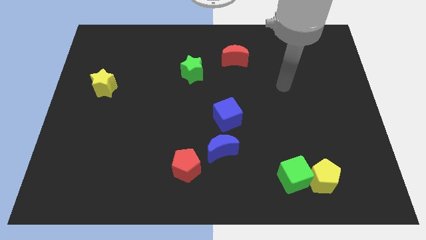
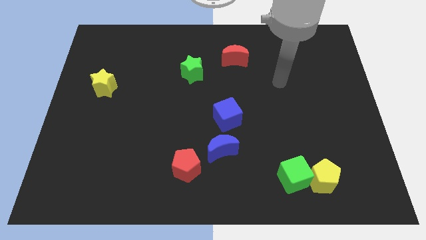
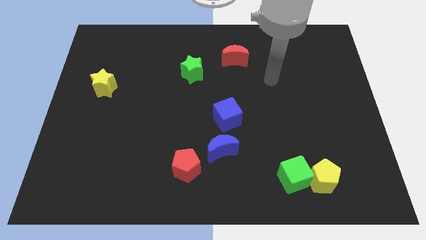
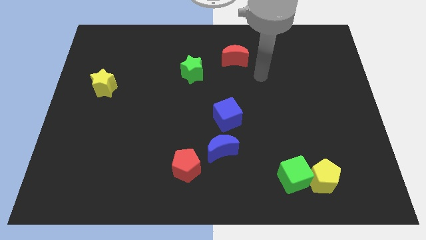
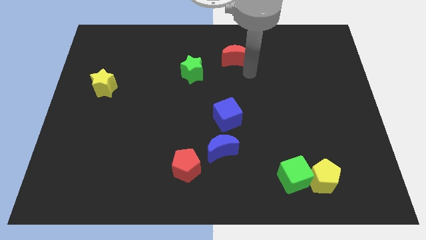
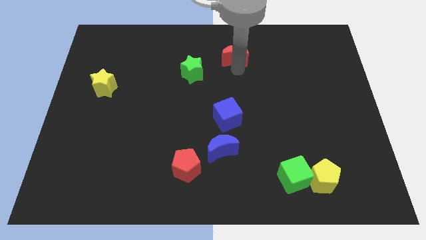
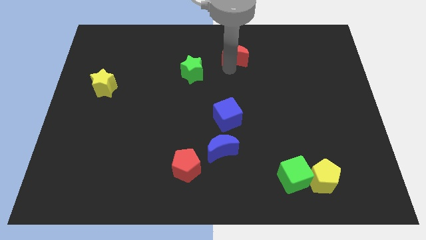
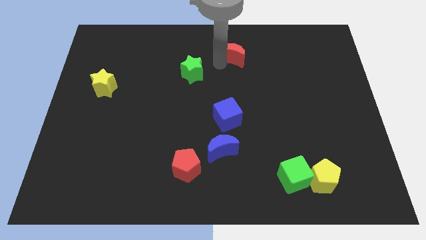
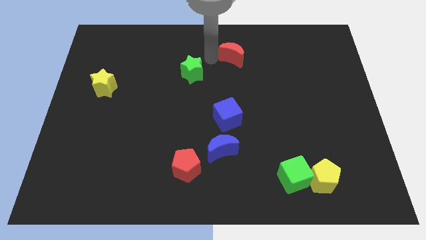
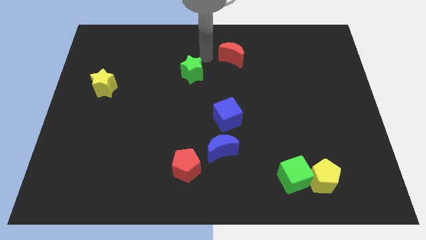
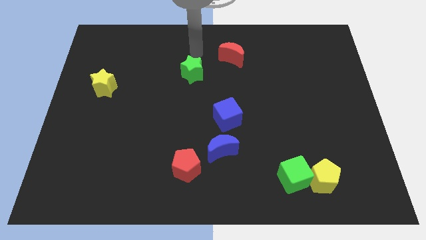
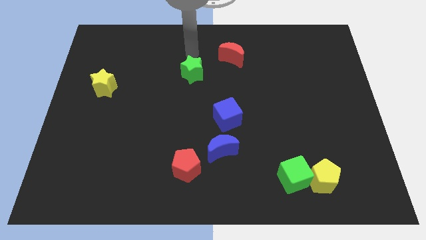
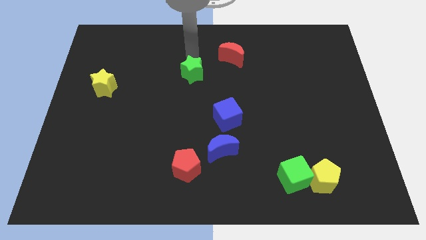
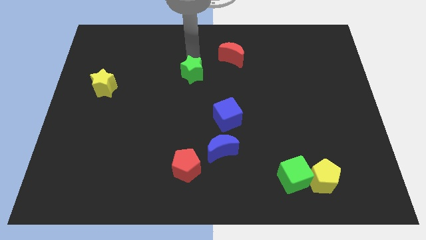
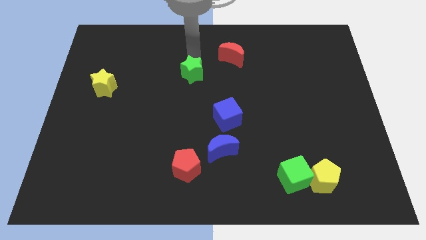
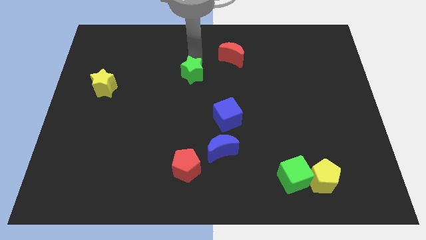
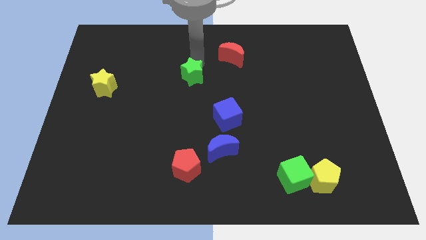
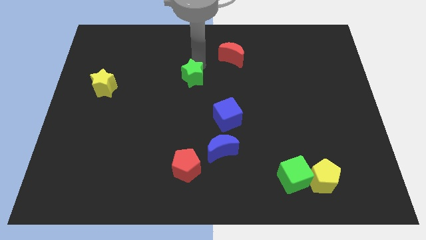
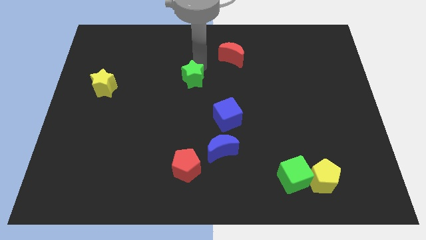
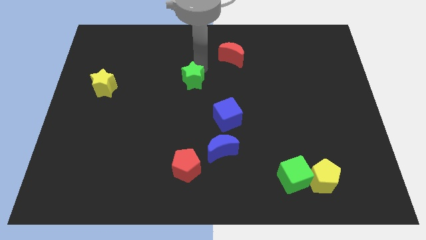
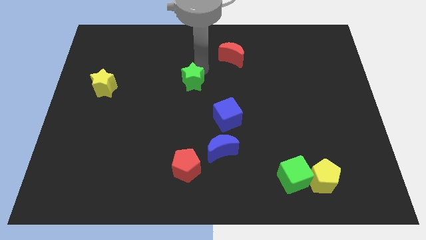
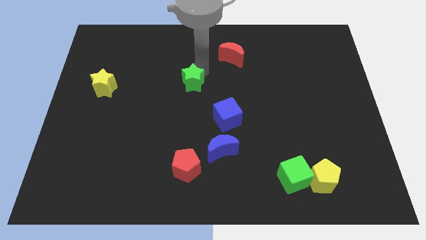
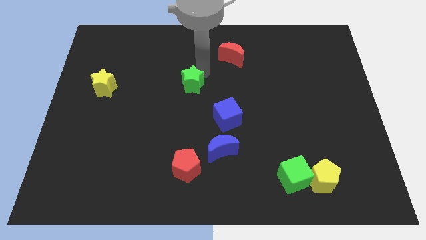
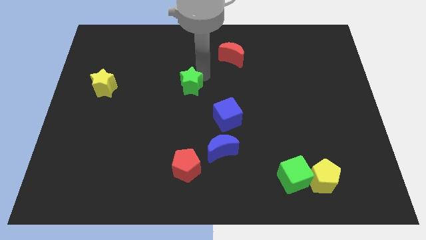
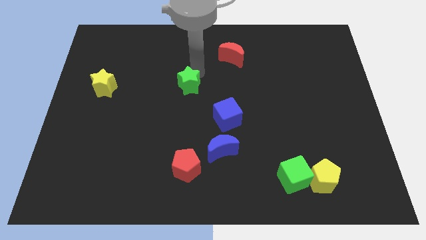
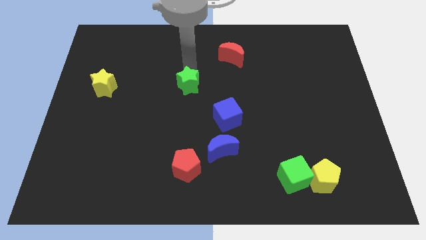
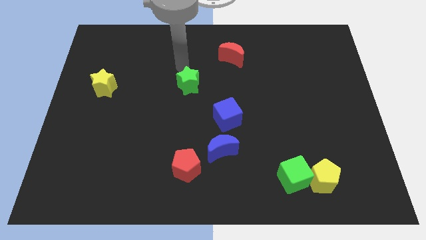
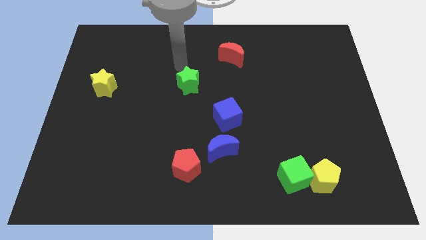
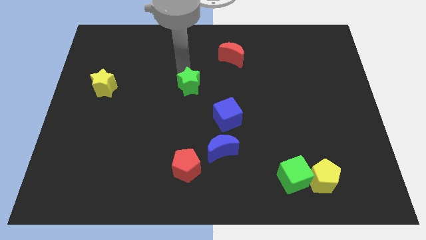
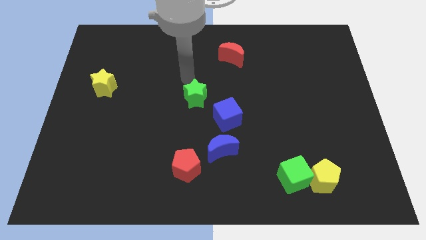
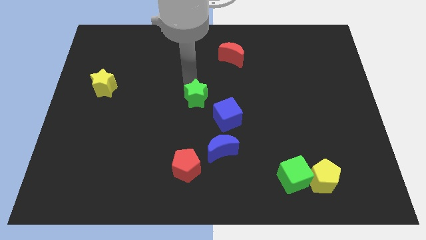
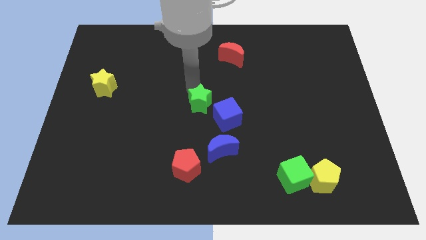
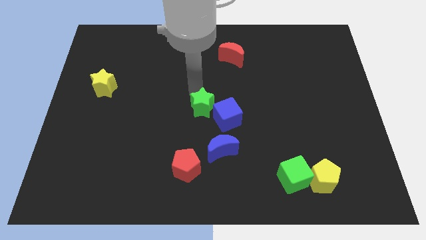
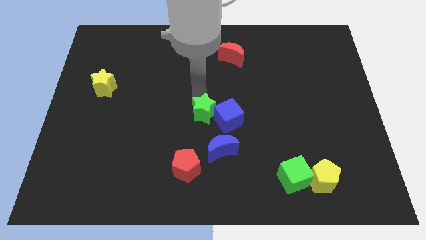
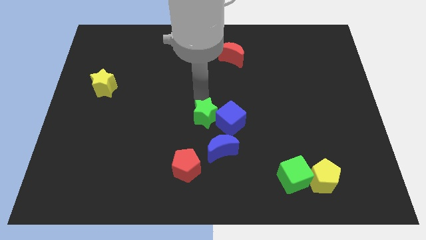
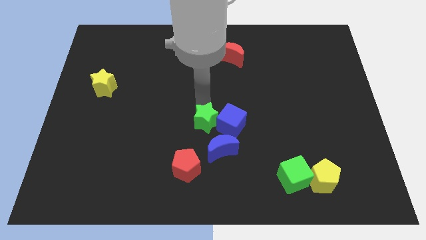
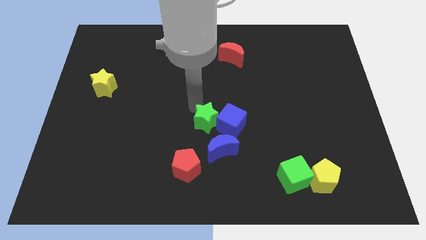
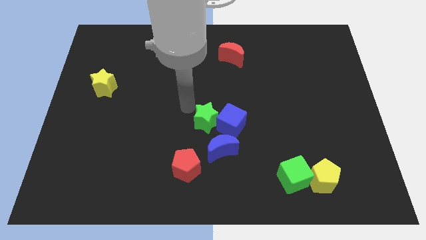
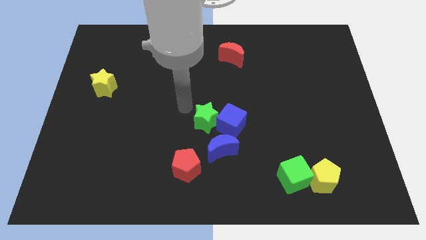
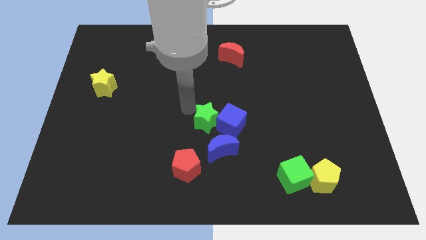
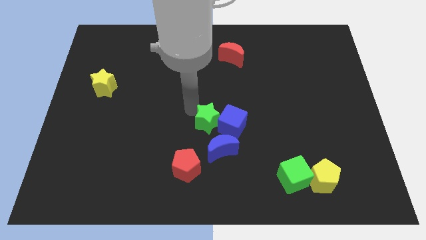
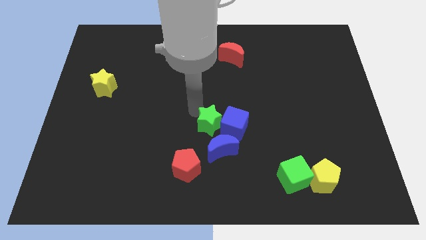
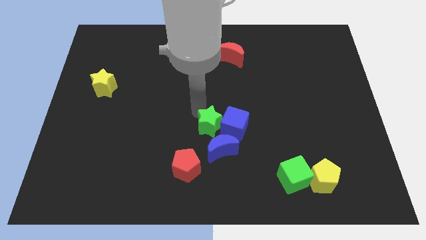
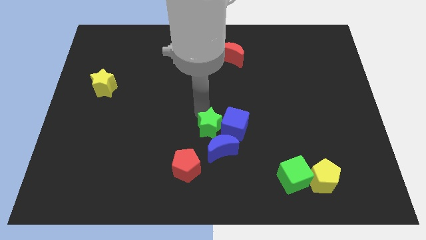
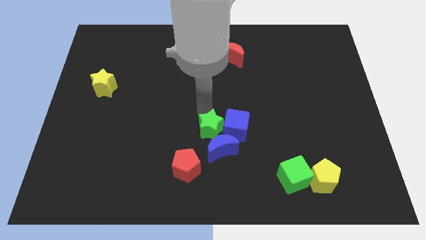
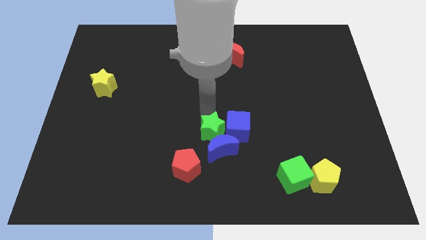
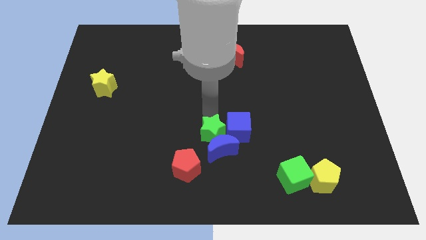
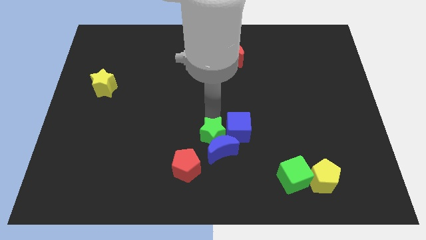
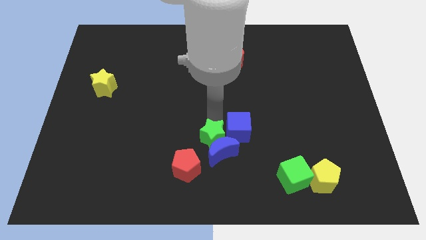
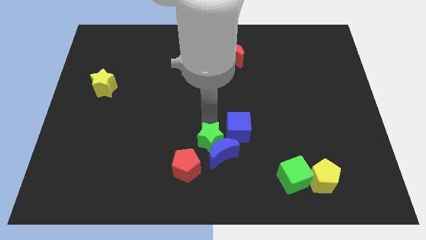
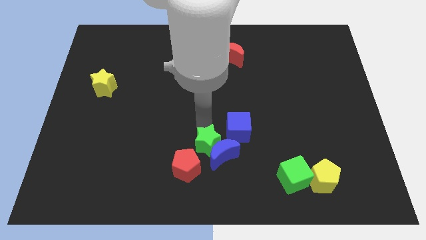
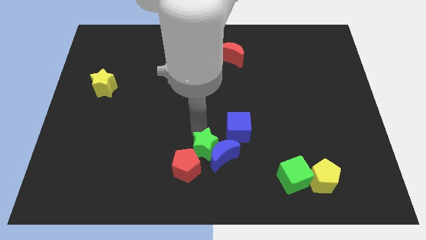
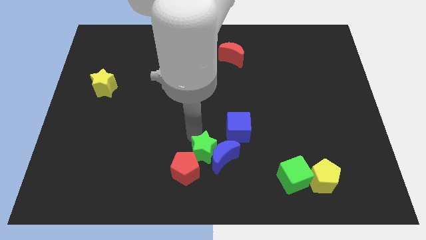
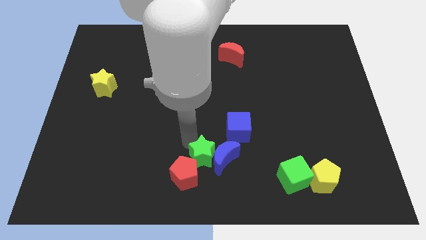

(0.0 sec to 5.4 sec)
push the green star to the bottom
